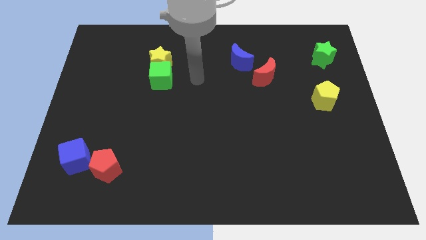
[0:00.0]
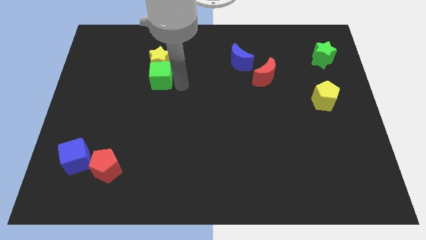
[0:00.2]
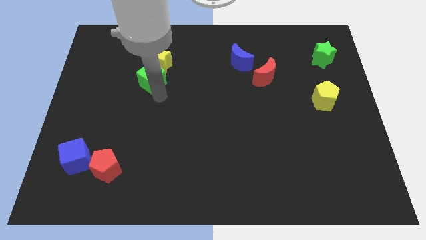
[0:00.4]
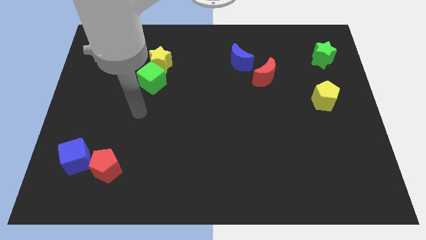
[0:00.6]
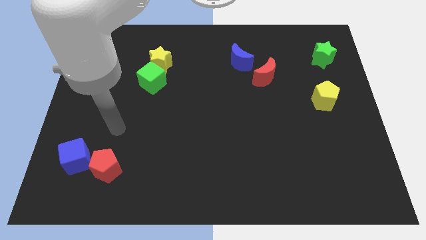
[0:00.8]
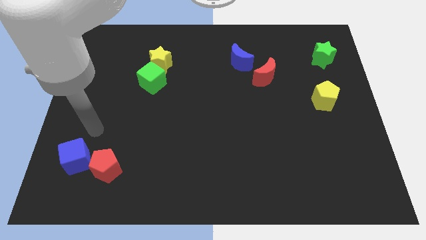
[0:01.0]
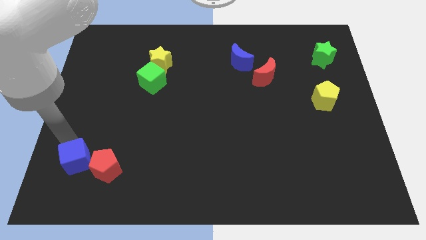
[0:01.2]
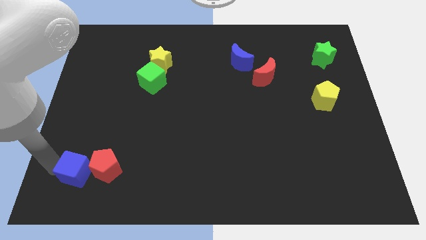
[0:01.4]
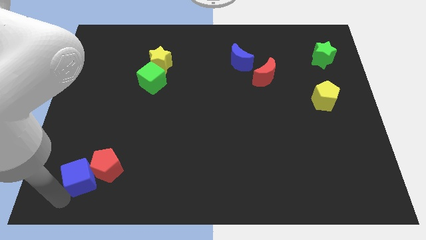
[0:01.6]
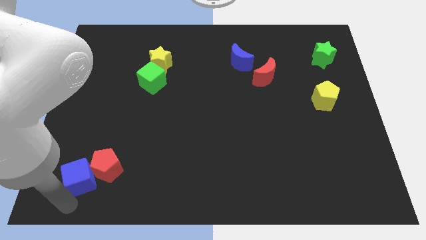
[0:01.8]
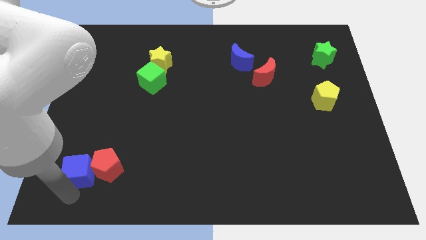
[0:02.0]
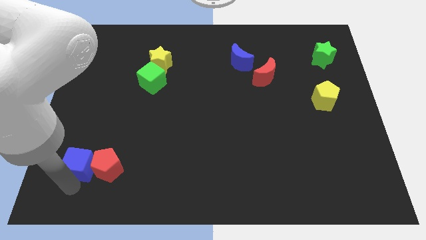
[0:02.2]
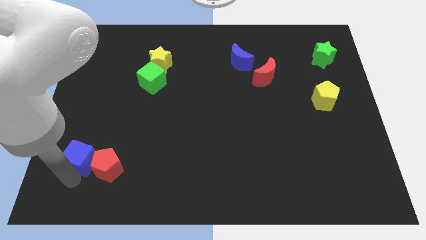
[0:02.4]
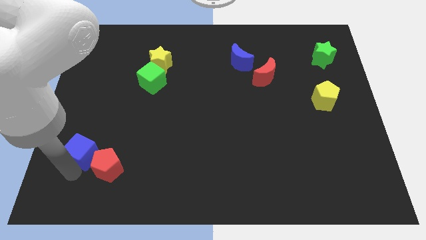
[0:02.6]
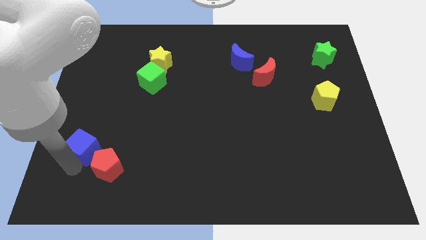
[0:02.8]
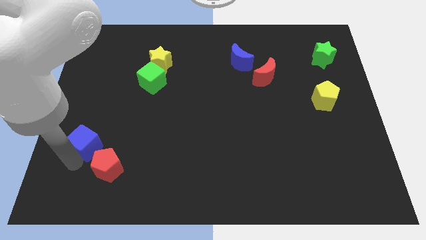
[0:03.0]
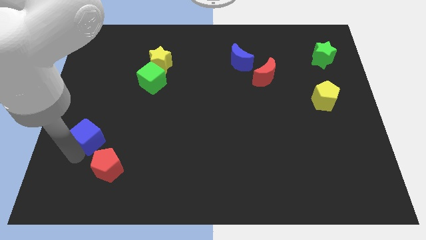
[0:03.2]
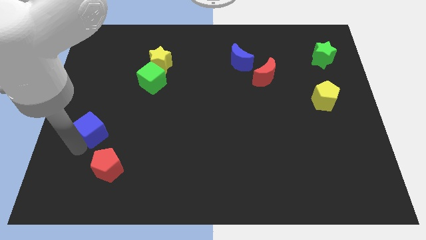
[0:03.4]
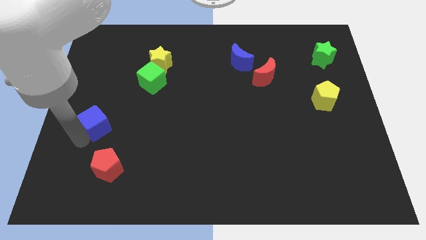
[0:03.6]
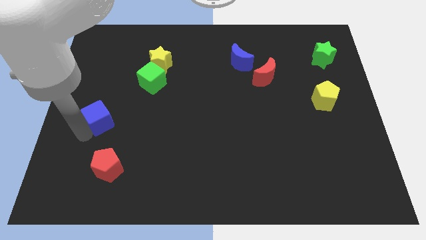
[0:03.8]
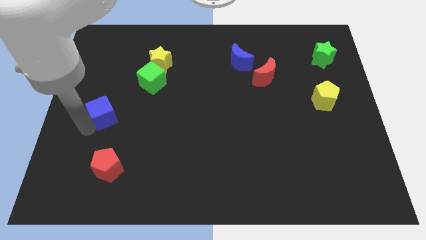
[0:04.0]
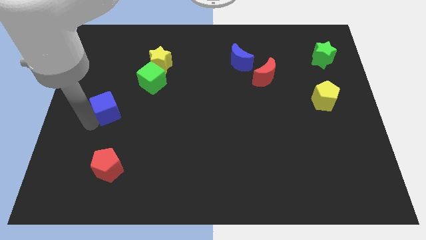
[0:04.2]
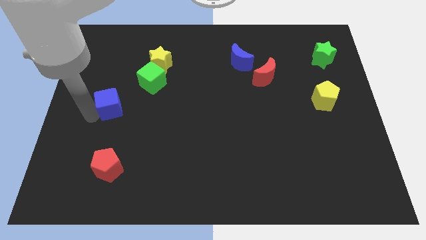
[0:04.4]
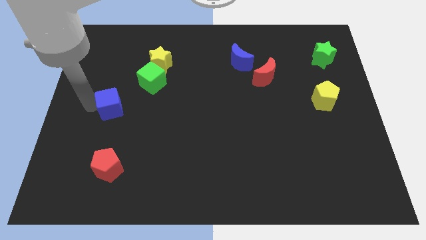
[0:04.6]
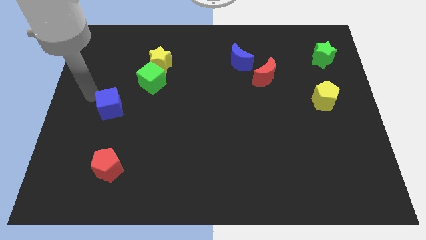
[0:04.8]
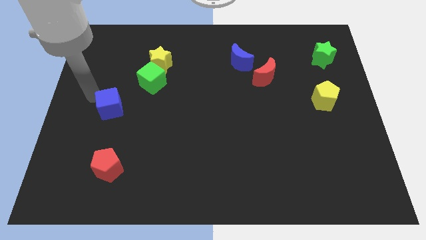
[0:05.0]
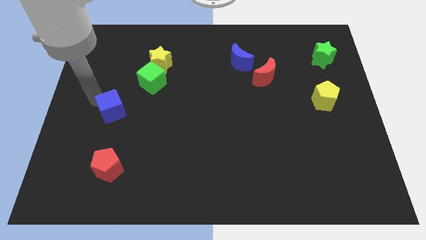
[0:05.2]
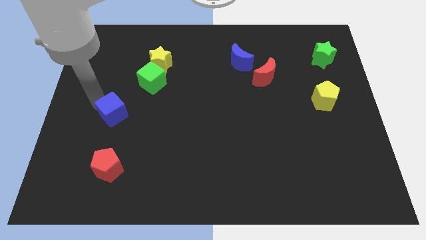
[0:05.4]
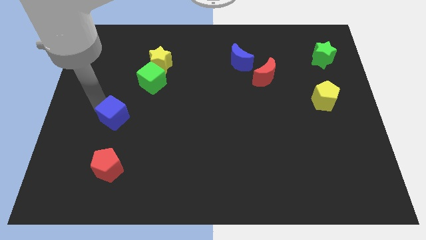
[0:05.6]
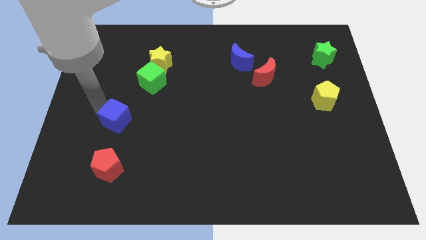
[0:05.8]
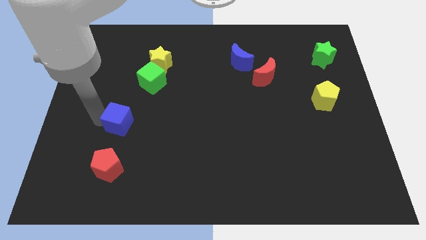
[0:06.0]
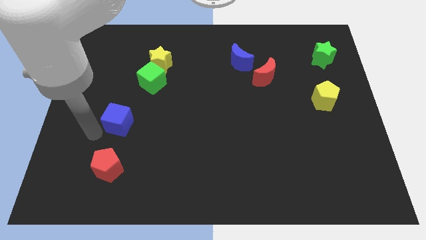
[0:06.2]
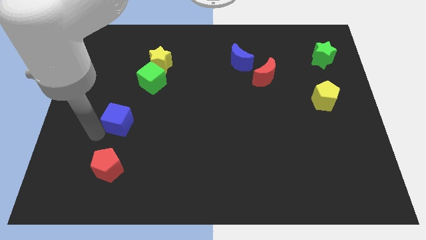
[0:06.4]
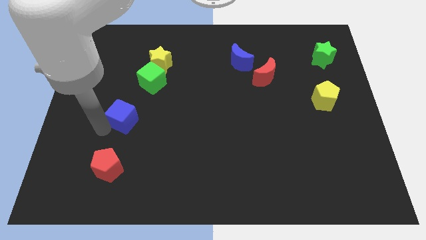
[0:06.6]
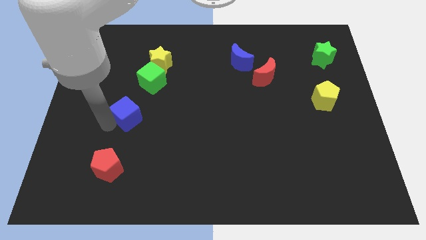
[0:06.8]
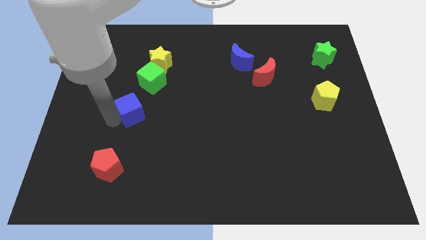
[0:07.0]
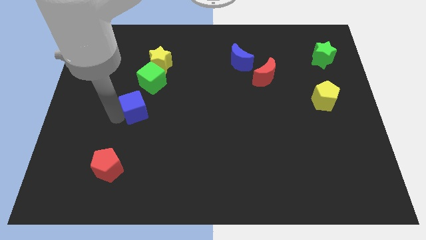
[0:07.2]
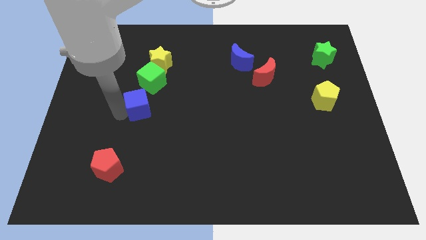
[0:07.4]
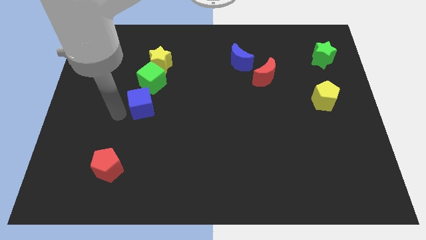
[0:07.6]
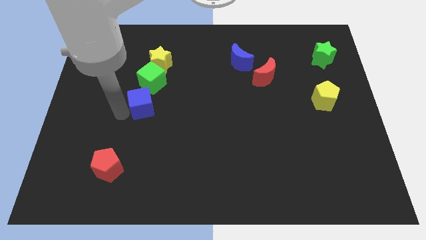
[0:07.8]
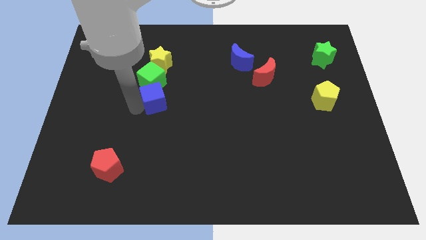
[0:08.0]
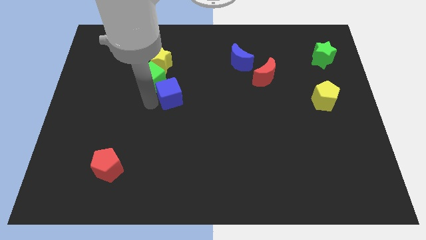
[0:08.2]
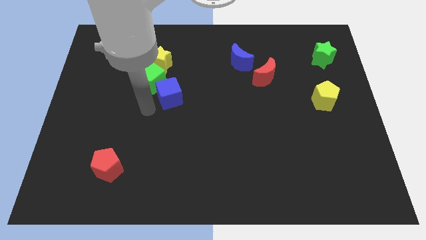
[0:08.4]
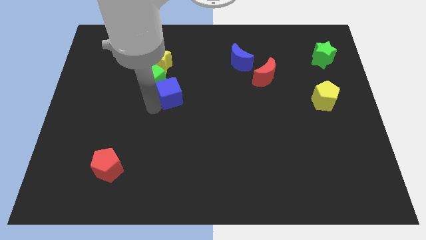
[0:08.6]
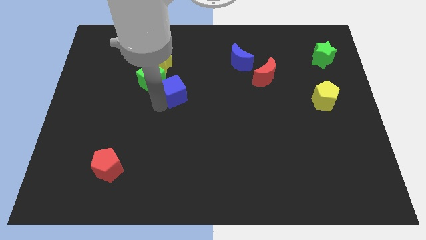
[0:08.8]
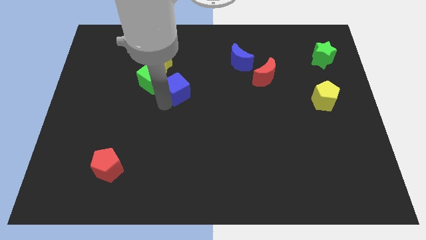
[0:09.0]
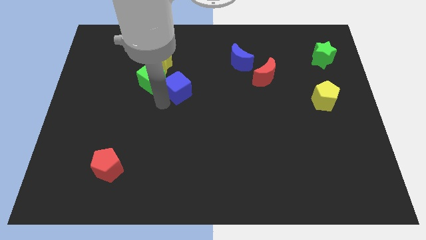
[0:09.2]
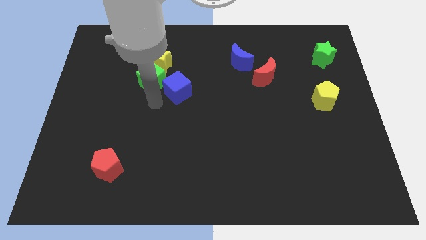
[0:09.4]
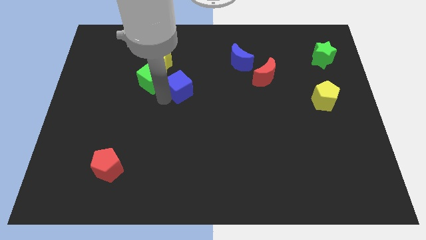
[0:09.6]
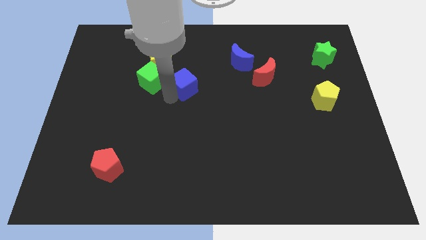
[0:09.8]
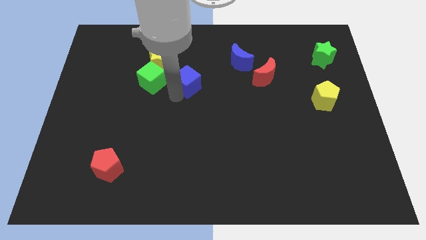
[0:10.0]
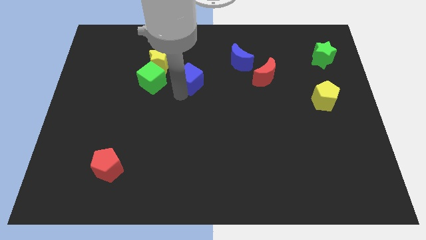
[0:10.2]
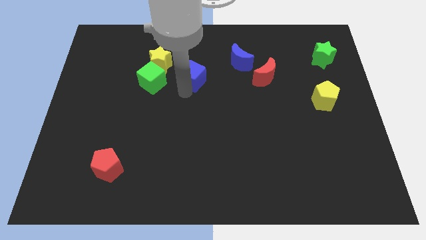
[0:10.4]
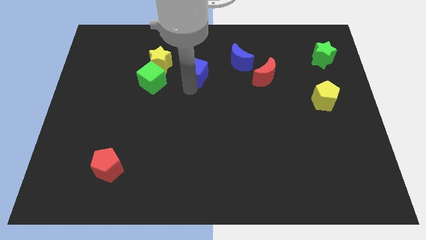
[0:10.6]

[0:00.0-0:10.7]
put the blue cube to the left of the blue moon

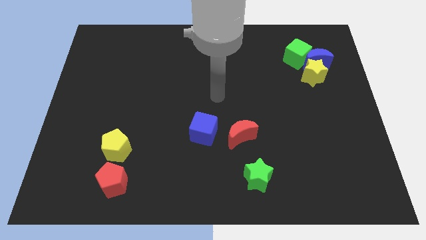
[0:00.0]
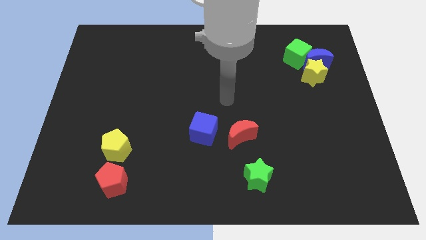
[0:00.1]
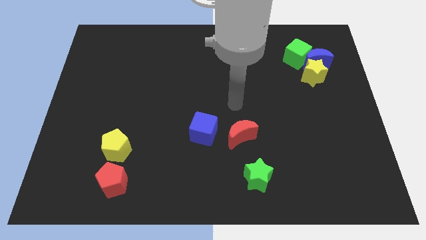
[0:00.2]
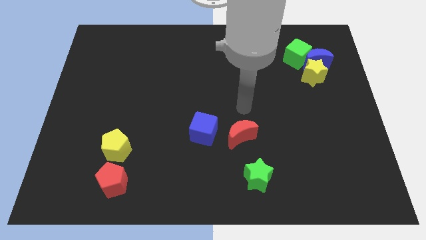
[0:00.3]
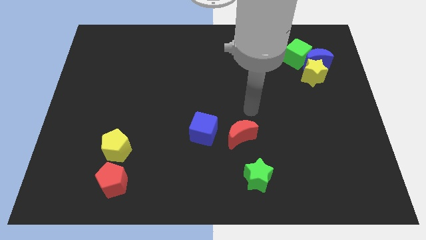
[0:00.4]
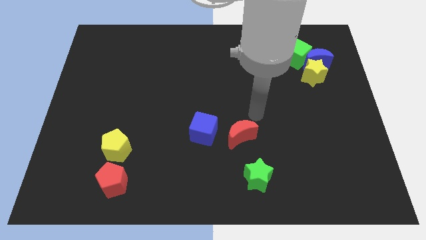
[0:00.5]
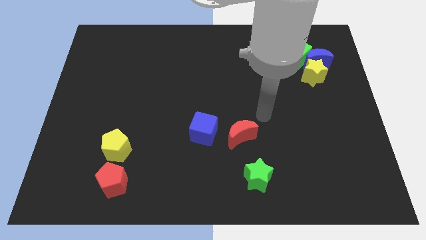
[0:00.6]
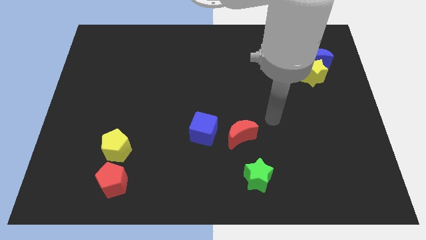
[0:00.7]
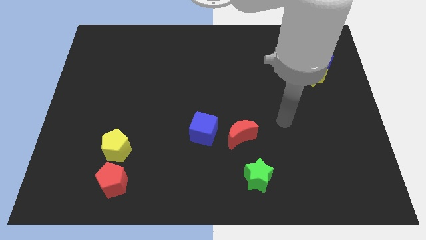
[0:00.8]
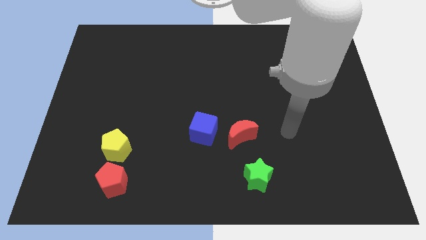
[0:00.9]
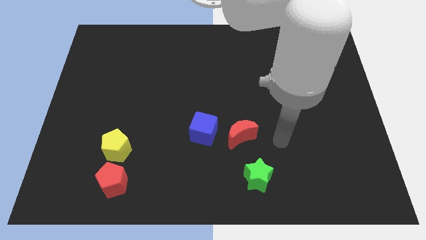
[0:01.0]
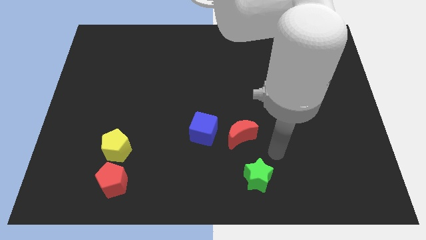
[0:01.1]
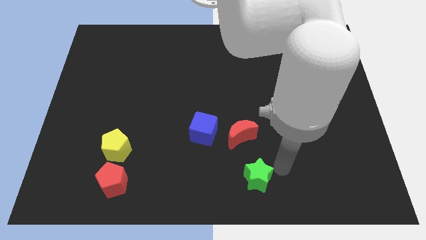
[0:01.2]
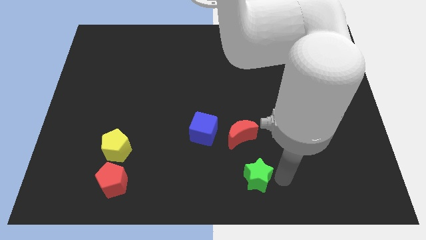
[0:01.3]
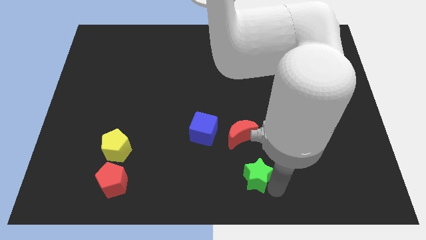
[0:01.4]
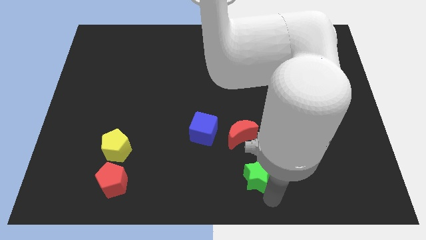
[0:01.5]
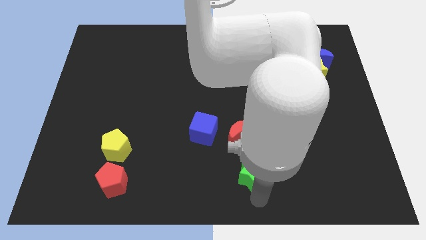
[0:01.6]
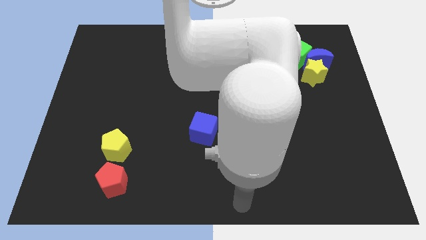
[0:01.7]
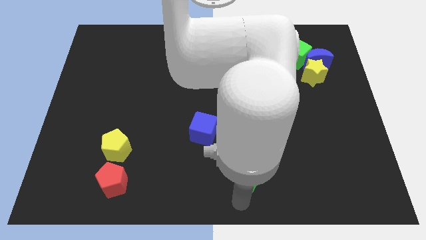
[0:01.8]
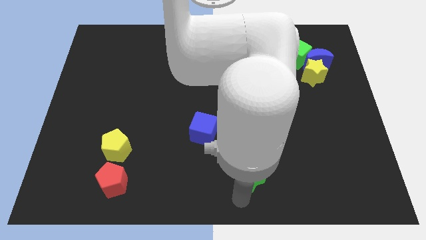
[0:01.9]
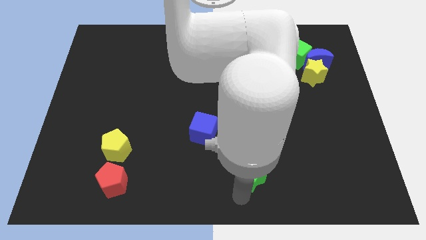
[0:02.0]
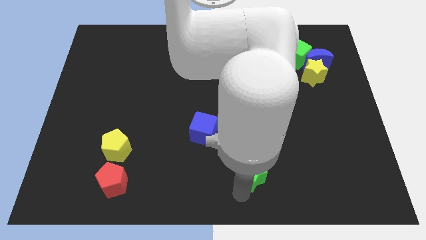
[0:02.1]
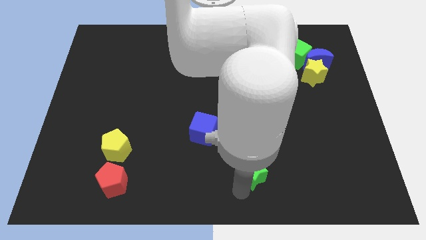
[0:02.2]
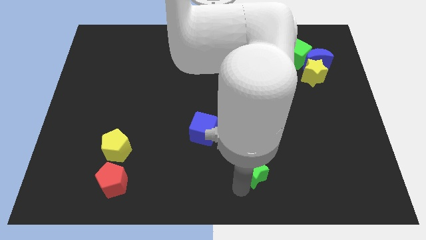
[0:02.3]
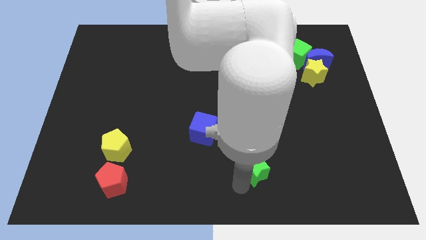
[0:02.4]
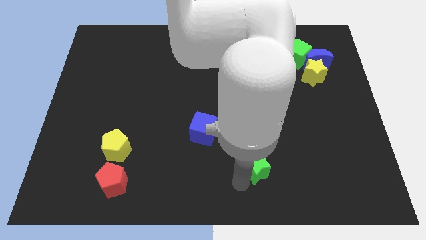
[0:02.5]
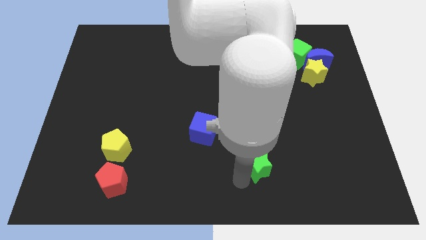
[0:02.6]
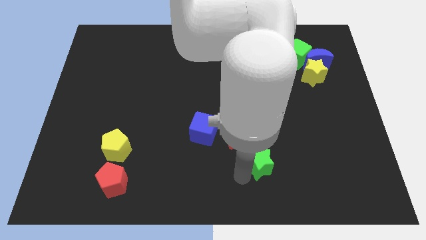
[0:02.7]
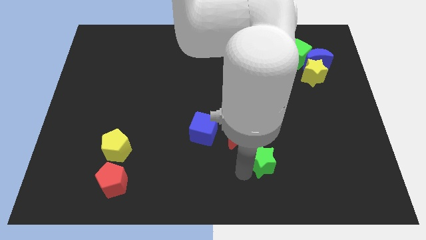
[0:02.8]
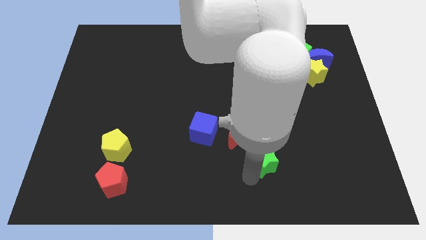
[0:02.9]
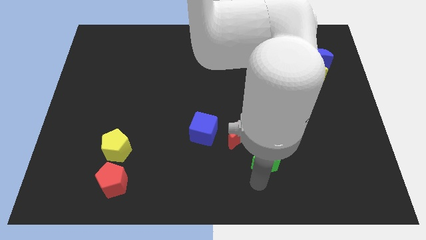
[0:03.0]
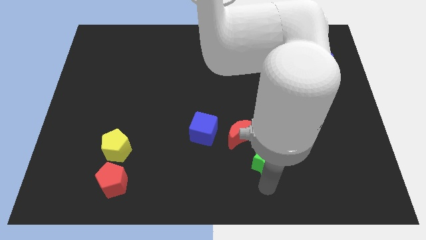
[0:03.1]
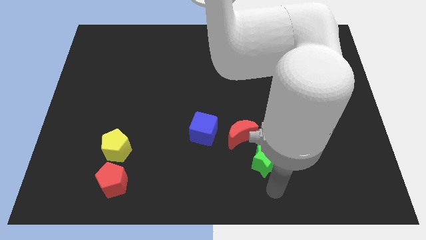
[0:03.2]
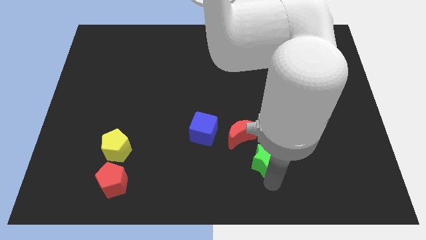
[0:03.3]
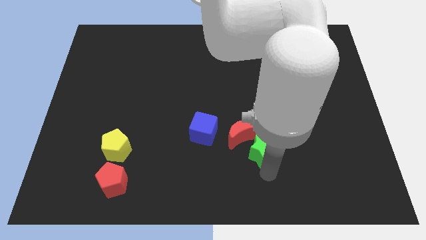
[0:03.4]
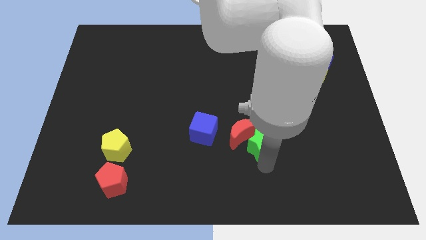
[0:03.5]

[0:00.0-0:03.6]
slide the green star just right of the blue cube
